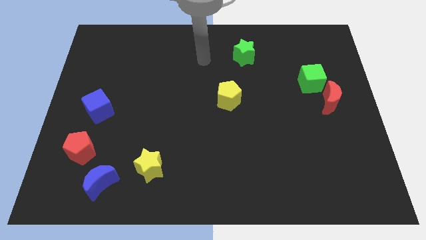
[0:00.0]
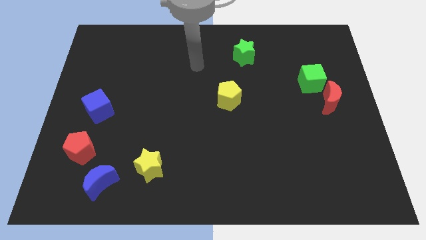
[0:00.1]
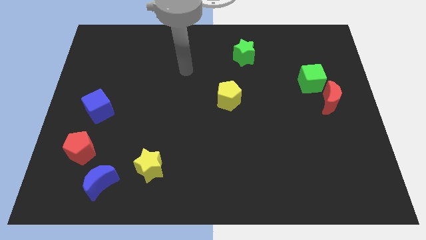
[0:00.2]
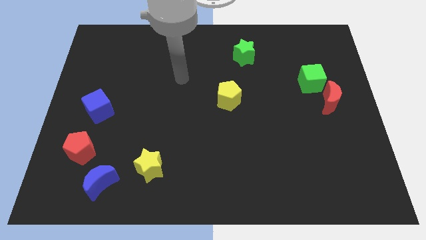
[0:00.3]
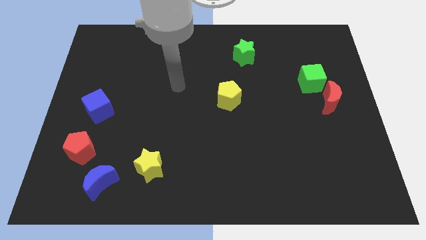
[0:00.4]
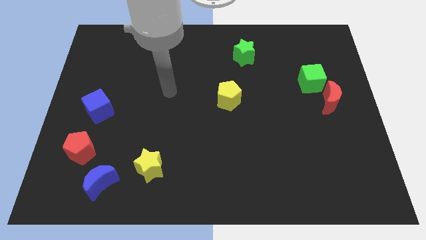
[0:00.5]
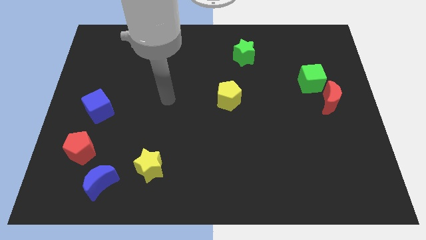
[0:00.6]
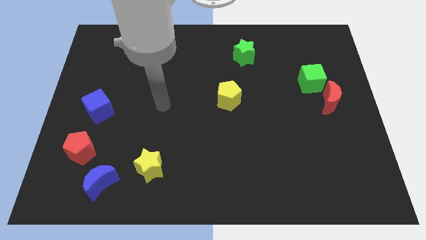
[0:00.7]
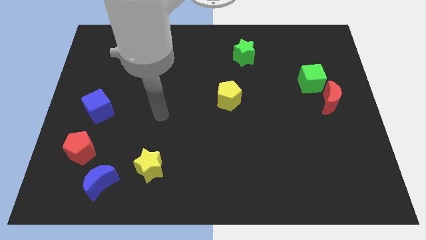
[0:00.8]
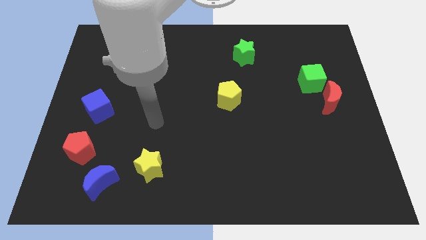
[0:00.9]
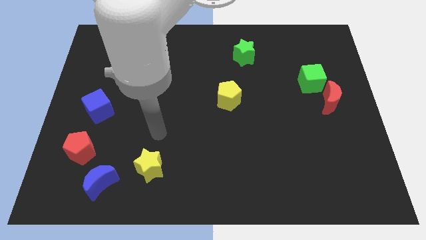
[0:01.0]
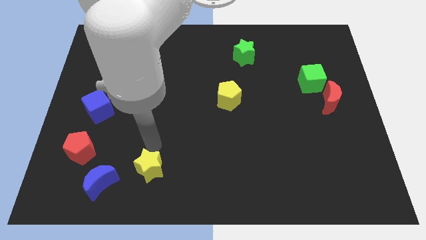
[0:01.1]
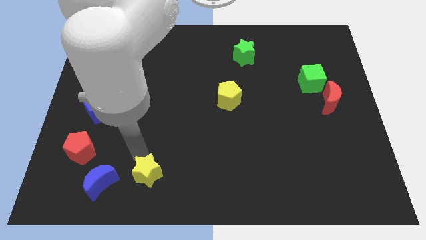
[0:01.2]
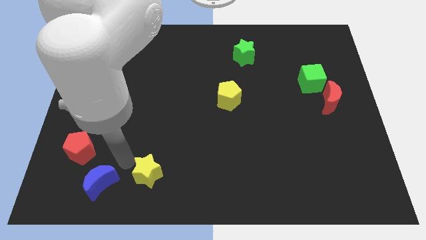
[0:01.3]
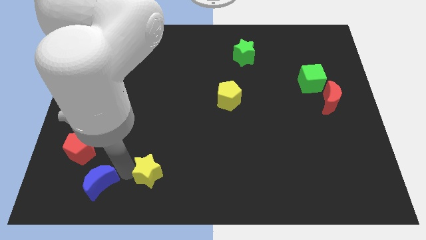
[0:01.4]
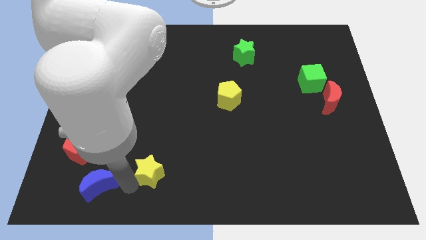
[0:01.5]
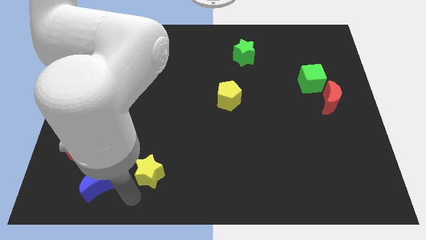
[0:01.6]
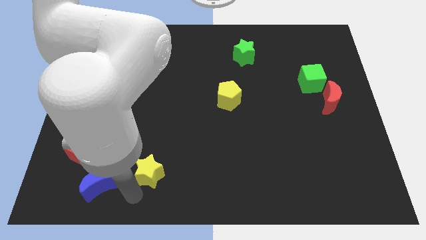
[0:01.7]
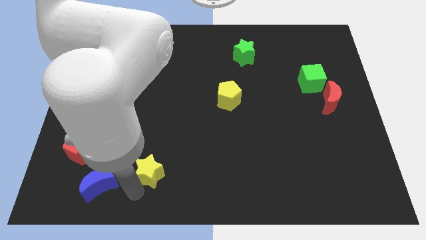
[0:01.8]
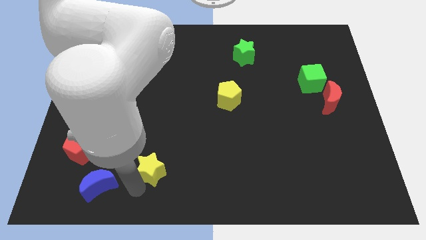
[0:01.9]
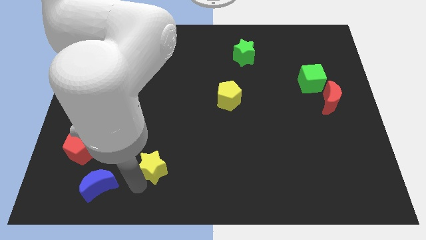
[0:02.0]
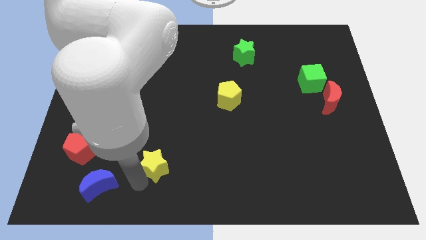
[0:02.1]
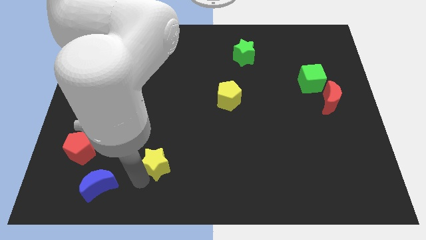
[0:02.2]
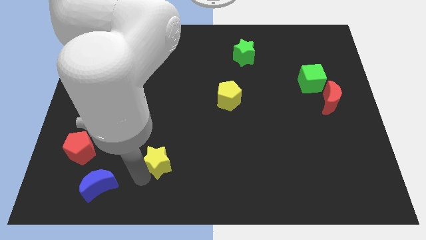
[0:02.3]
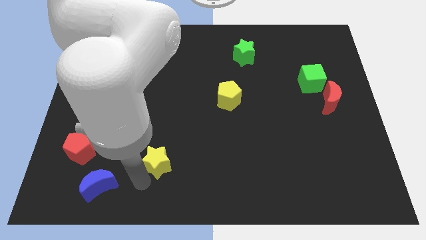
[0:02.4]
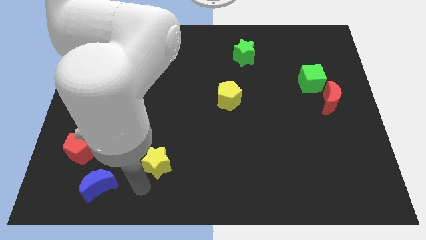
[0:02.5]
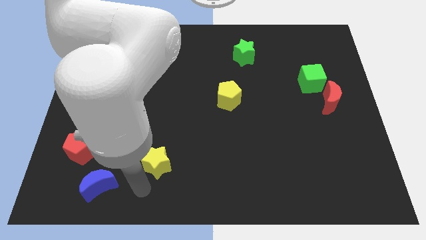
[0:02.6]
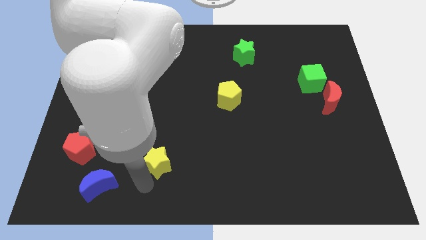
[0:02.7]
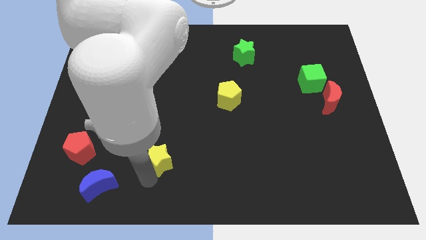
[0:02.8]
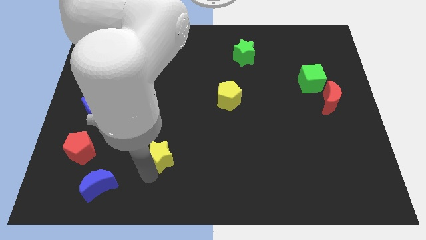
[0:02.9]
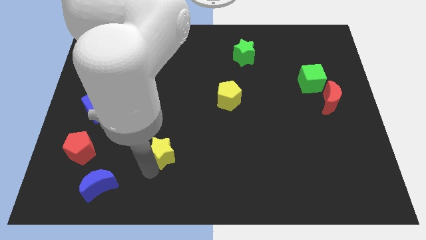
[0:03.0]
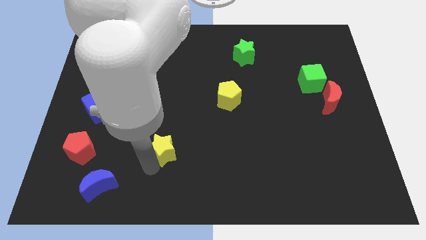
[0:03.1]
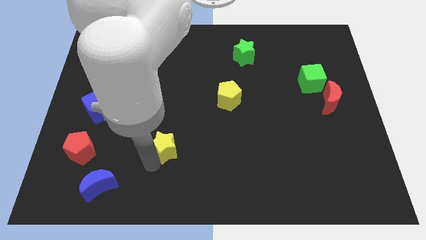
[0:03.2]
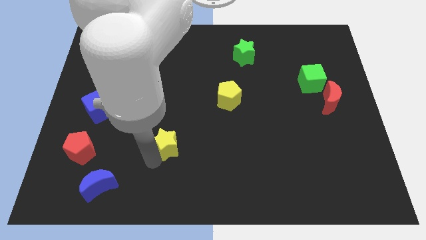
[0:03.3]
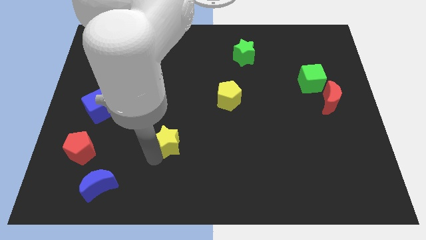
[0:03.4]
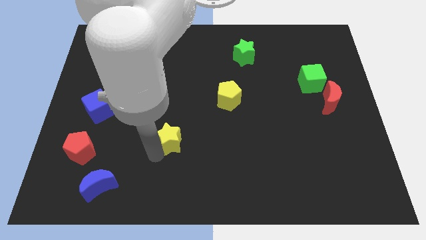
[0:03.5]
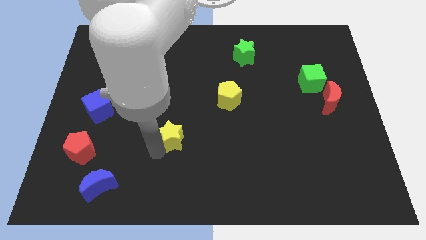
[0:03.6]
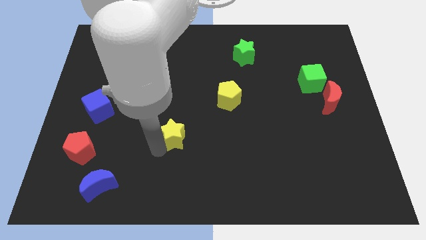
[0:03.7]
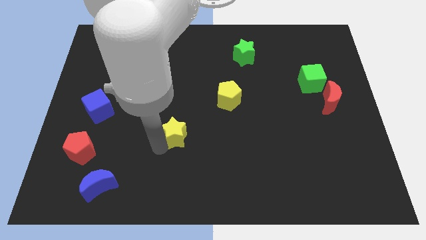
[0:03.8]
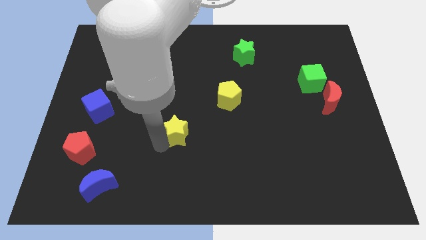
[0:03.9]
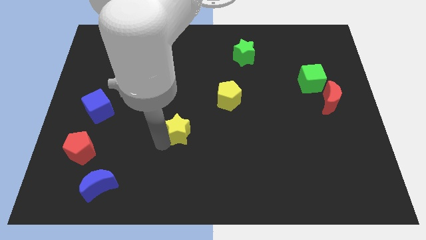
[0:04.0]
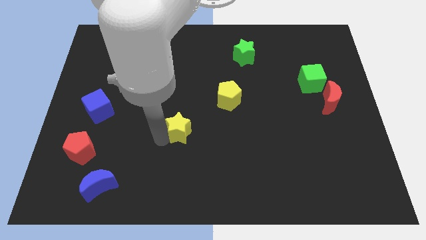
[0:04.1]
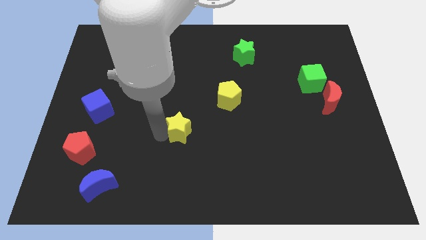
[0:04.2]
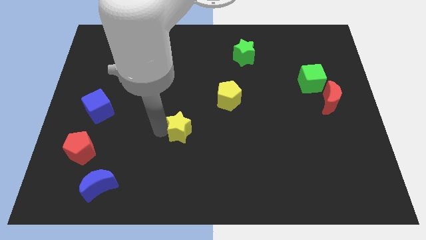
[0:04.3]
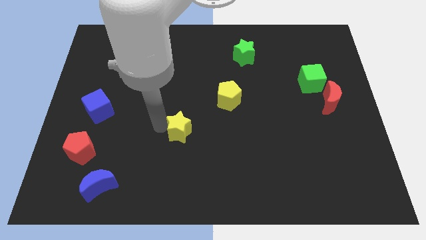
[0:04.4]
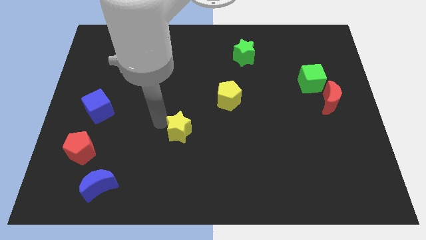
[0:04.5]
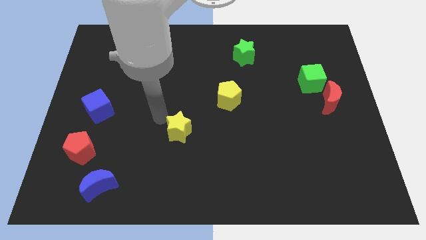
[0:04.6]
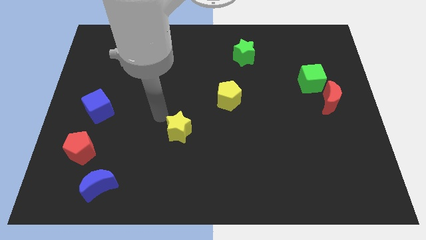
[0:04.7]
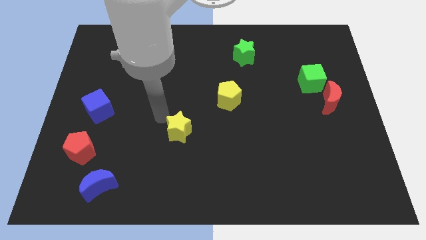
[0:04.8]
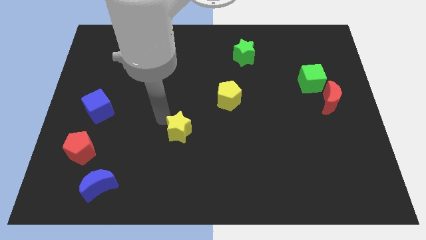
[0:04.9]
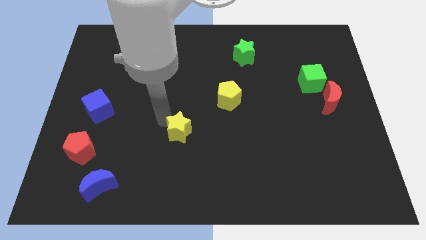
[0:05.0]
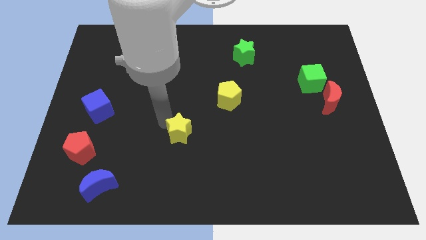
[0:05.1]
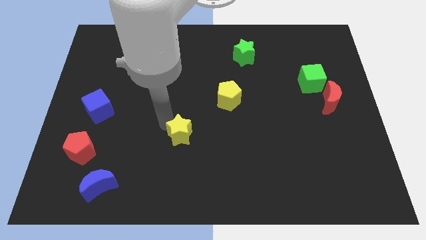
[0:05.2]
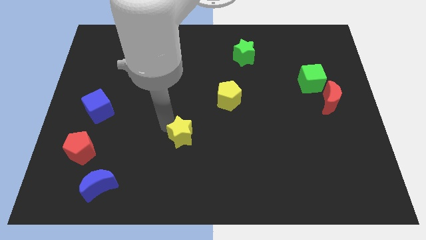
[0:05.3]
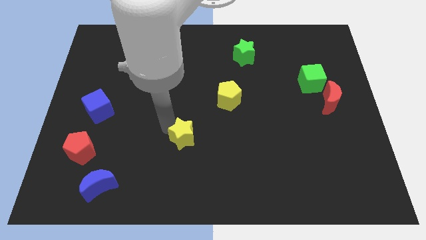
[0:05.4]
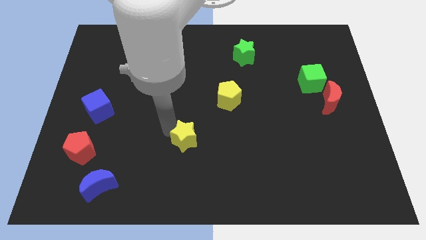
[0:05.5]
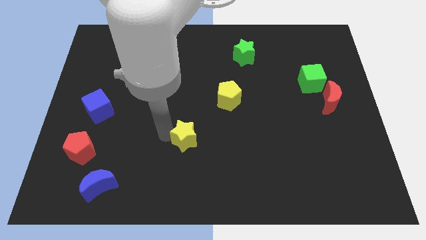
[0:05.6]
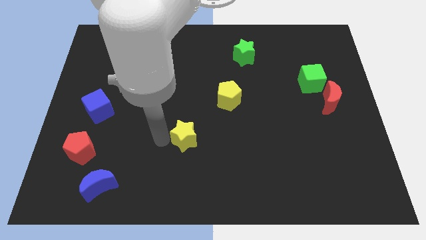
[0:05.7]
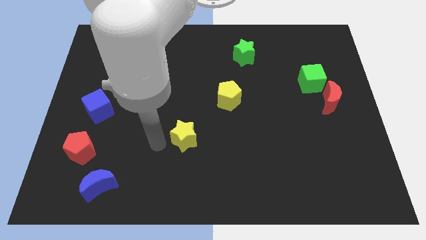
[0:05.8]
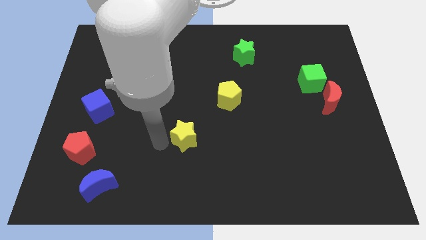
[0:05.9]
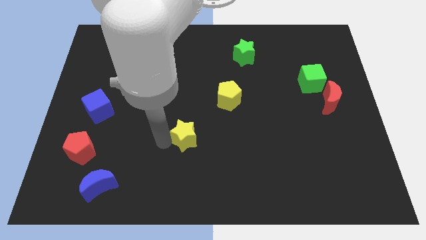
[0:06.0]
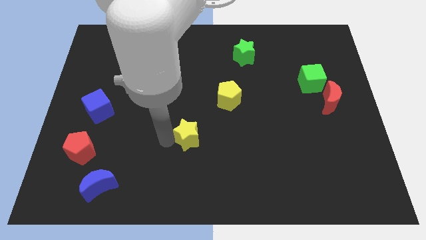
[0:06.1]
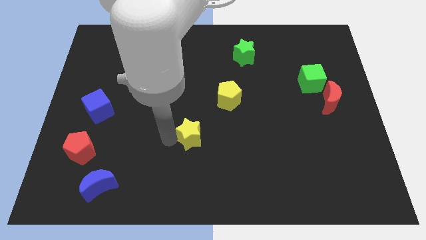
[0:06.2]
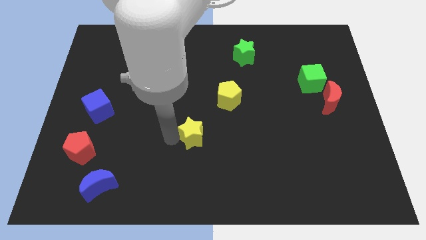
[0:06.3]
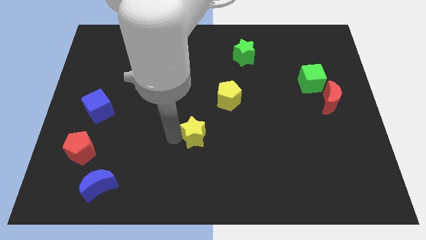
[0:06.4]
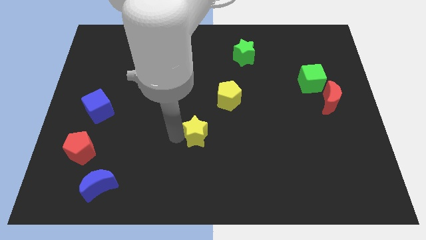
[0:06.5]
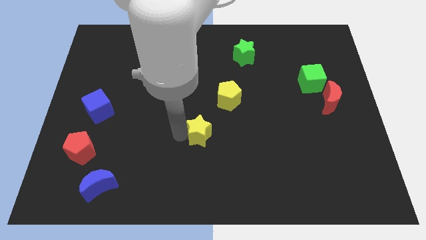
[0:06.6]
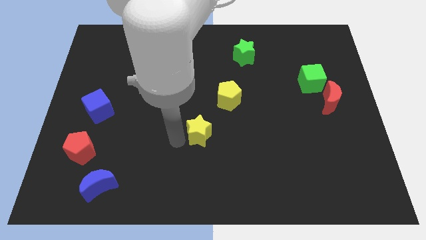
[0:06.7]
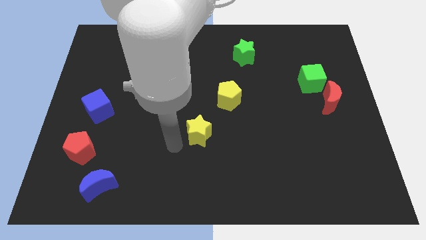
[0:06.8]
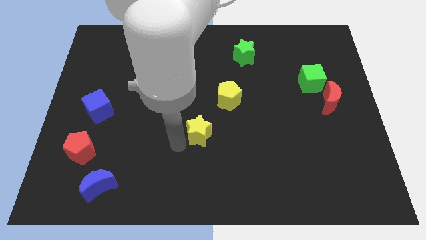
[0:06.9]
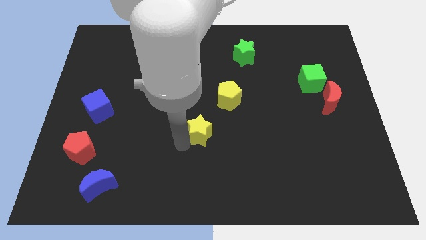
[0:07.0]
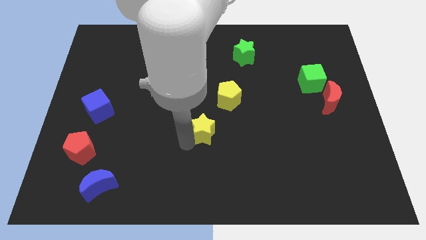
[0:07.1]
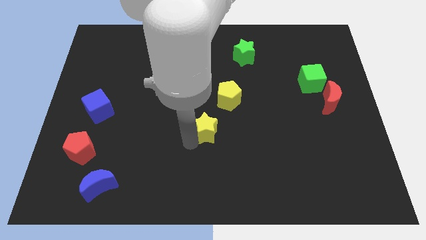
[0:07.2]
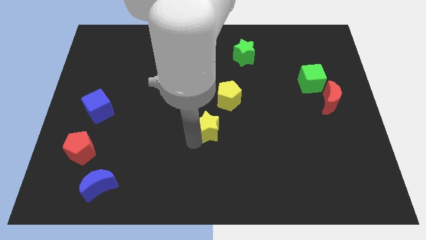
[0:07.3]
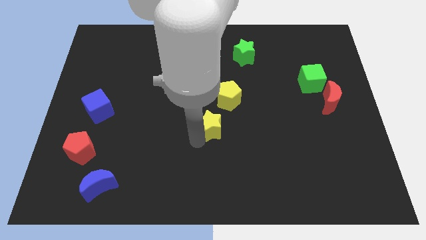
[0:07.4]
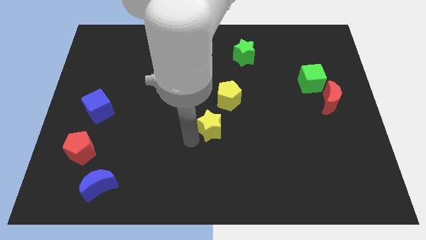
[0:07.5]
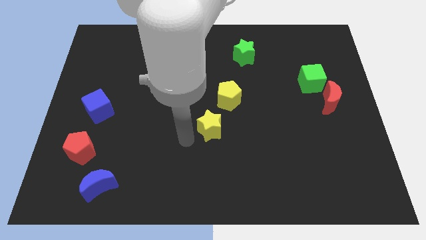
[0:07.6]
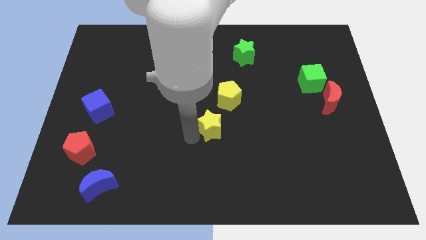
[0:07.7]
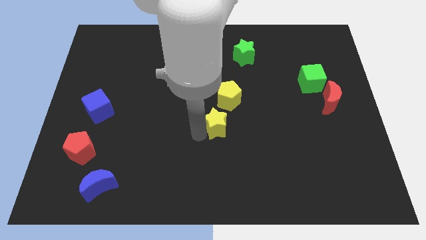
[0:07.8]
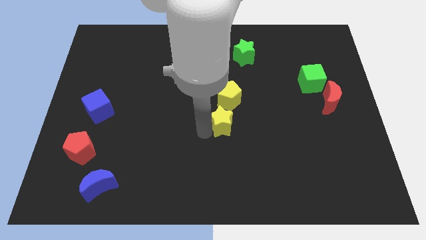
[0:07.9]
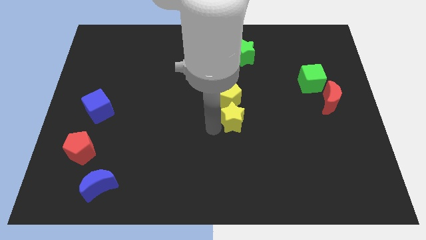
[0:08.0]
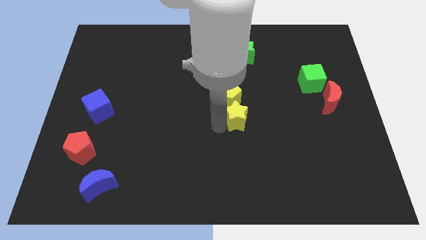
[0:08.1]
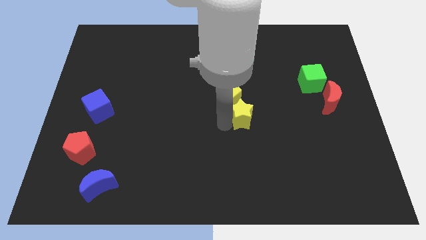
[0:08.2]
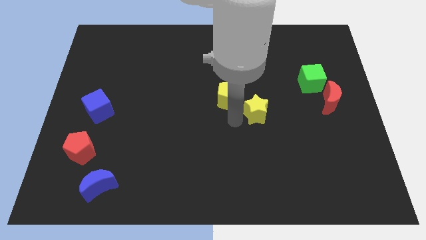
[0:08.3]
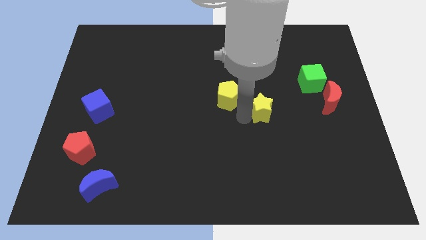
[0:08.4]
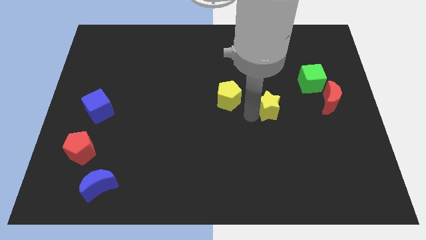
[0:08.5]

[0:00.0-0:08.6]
move the yellow star left of the red moon
